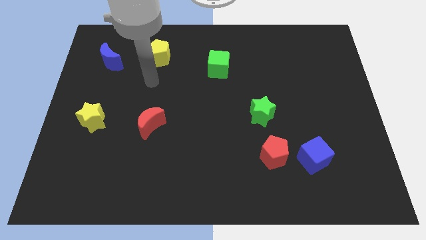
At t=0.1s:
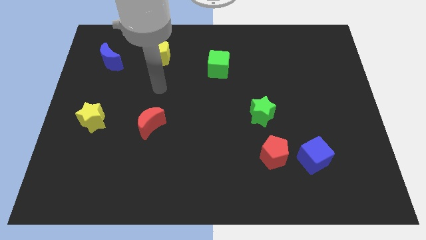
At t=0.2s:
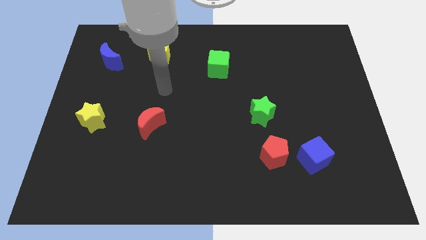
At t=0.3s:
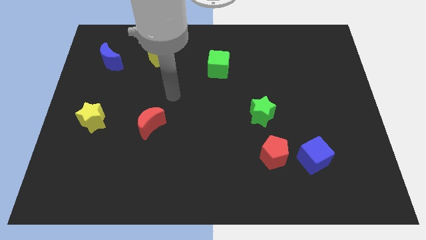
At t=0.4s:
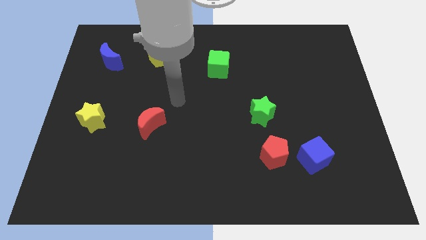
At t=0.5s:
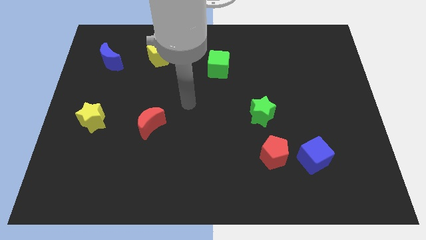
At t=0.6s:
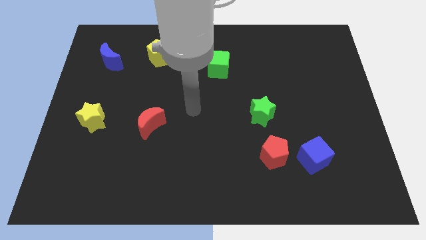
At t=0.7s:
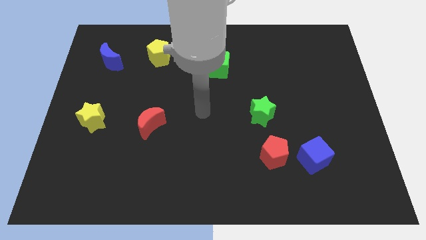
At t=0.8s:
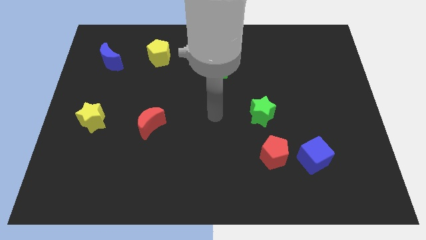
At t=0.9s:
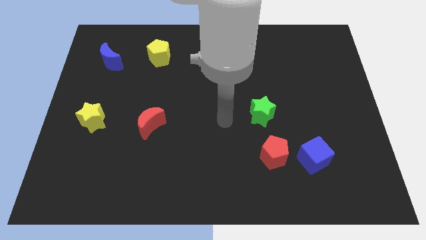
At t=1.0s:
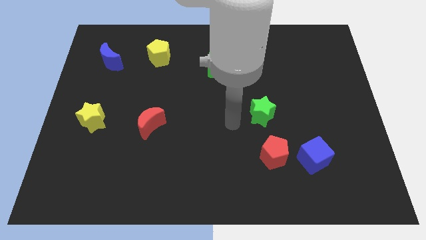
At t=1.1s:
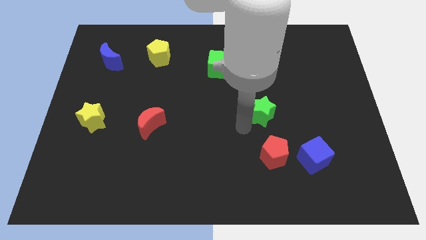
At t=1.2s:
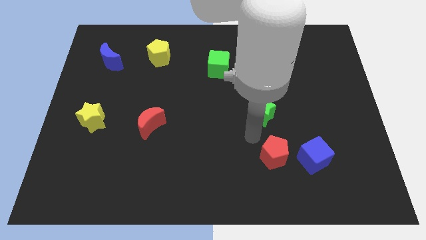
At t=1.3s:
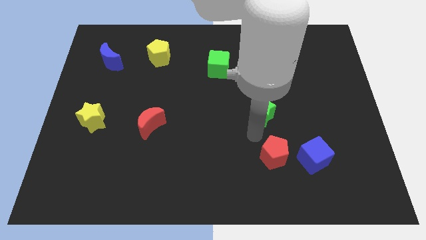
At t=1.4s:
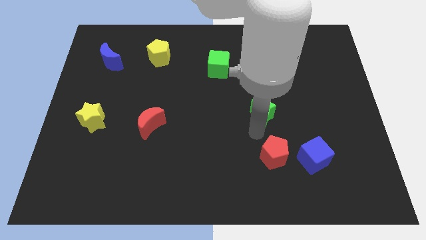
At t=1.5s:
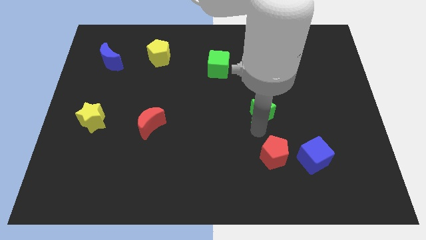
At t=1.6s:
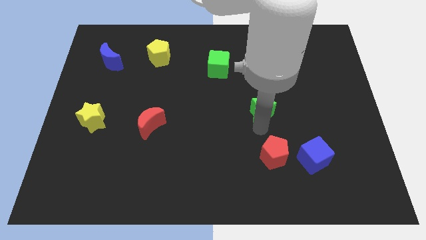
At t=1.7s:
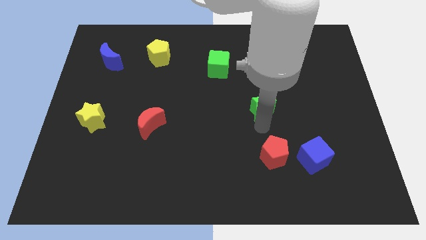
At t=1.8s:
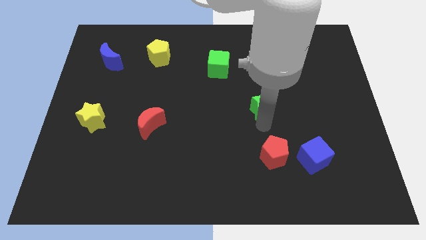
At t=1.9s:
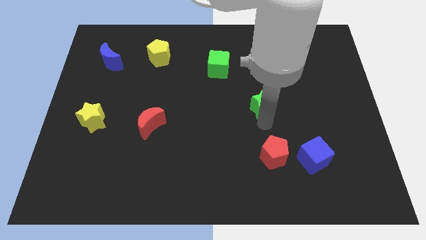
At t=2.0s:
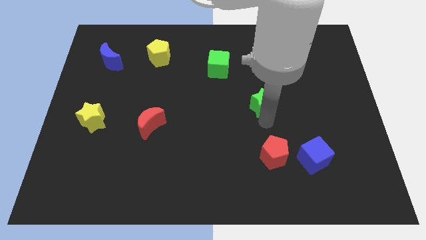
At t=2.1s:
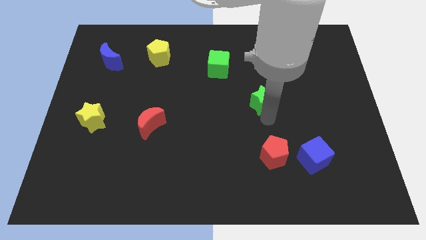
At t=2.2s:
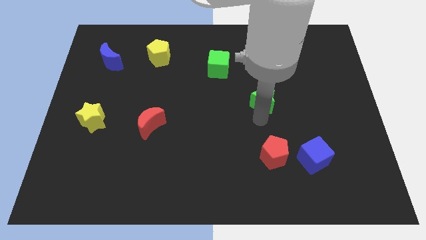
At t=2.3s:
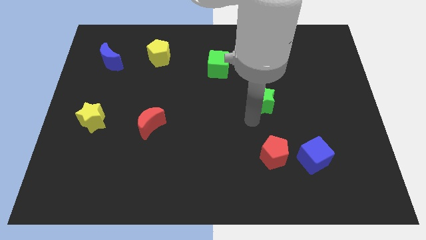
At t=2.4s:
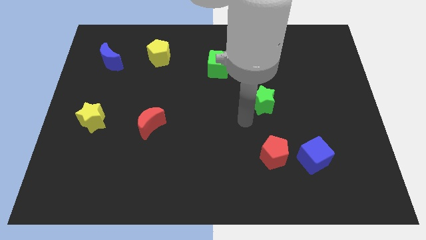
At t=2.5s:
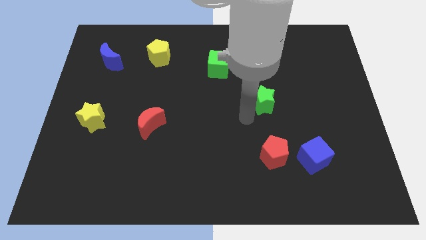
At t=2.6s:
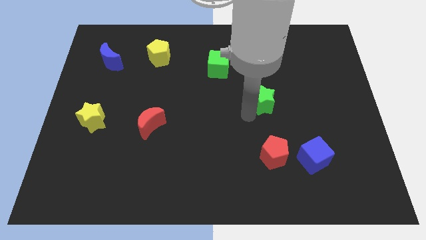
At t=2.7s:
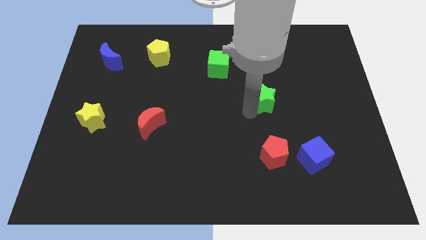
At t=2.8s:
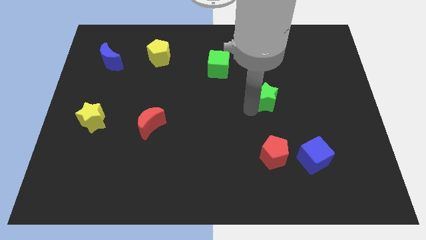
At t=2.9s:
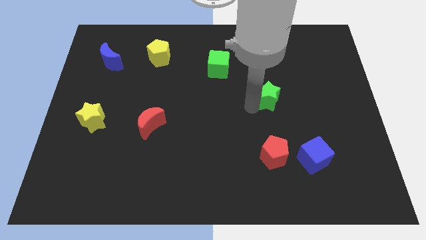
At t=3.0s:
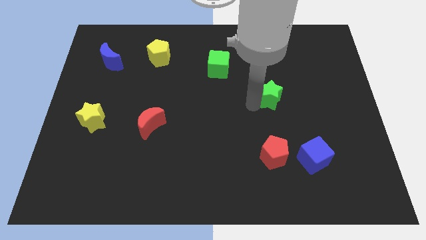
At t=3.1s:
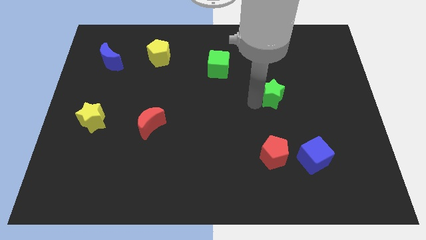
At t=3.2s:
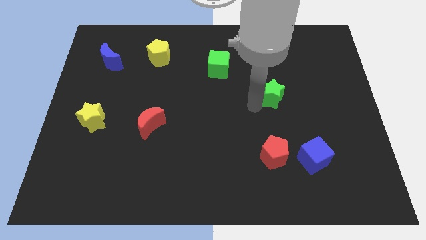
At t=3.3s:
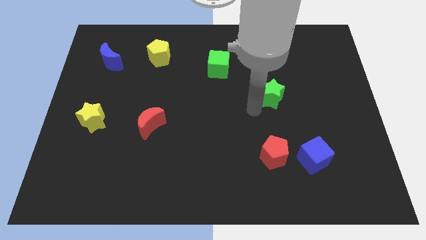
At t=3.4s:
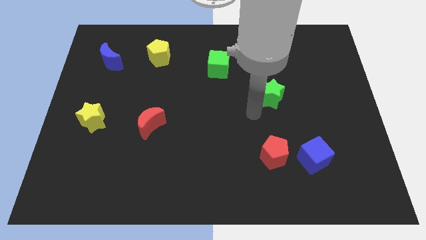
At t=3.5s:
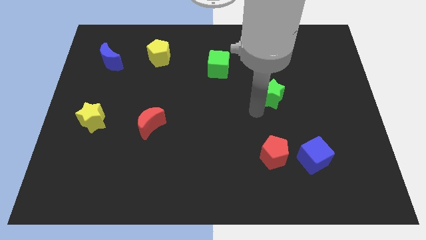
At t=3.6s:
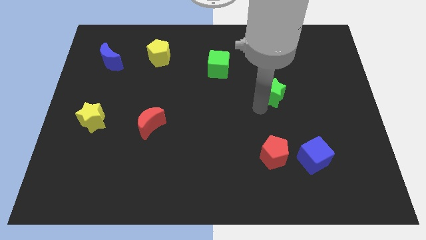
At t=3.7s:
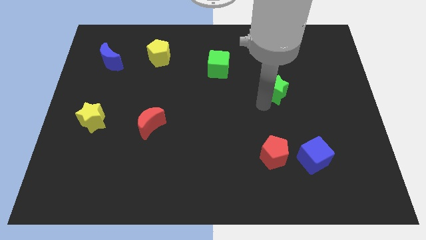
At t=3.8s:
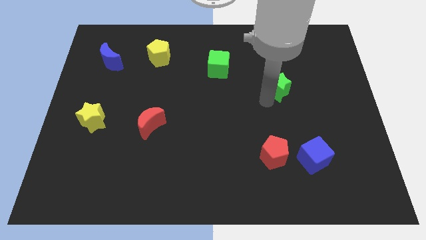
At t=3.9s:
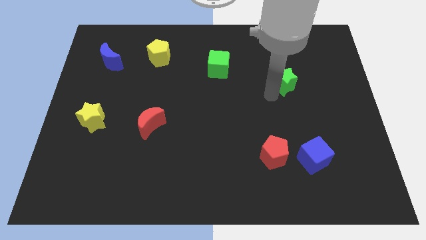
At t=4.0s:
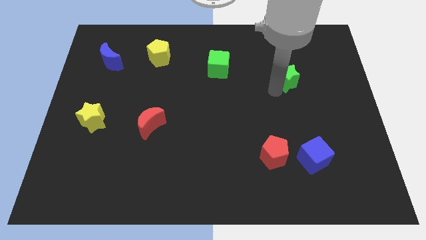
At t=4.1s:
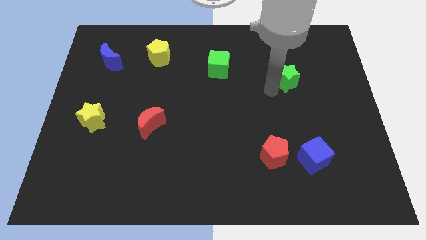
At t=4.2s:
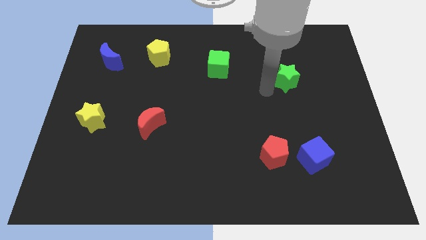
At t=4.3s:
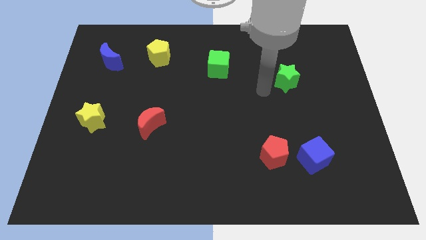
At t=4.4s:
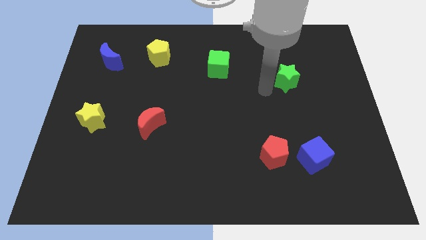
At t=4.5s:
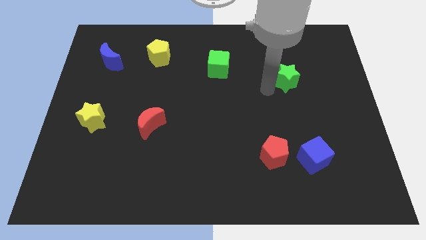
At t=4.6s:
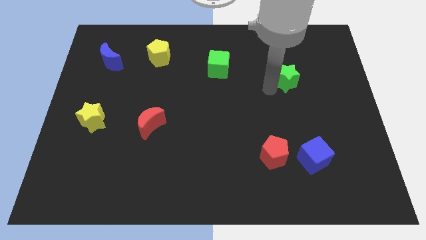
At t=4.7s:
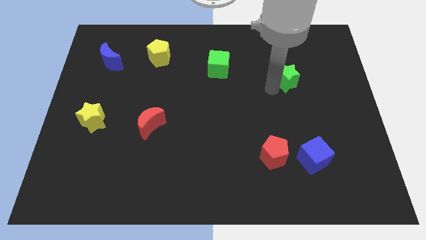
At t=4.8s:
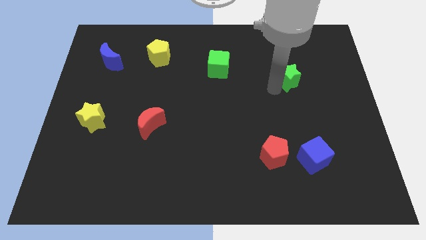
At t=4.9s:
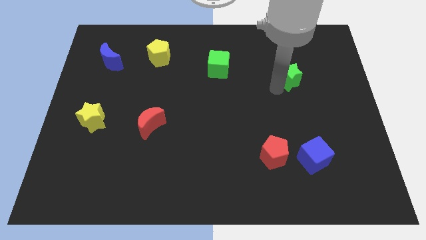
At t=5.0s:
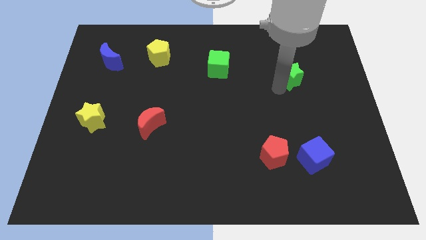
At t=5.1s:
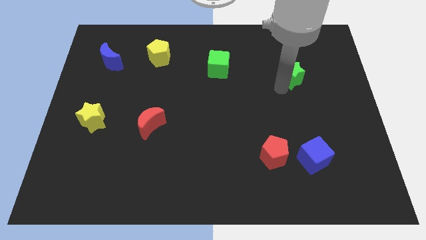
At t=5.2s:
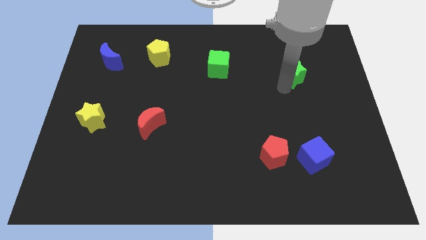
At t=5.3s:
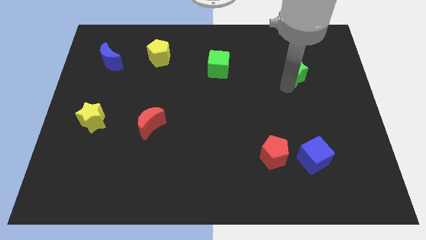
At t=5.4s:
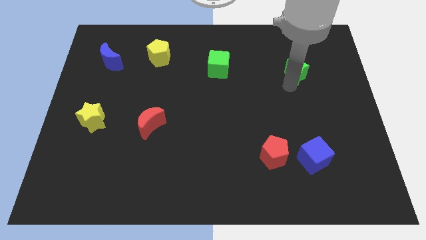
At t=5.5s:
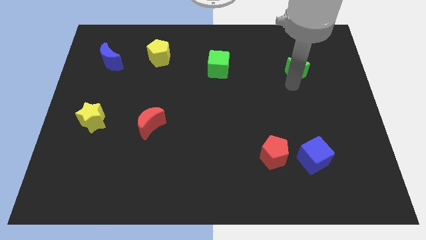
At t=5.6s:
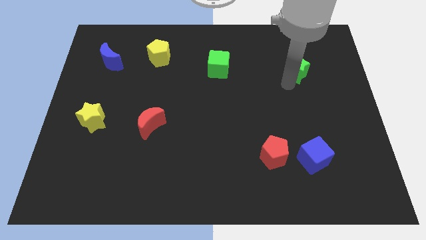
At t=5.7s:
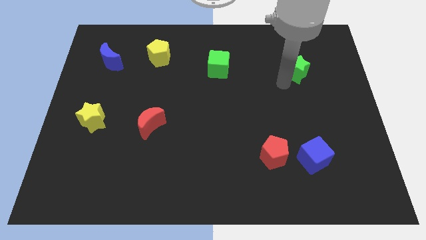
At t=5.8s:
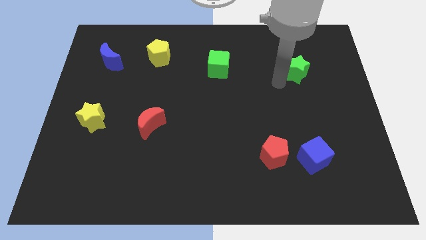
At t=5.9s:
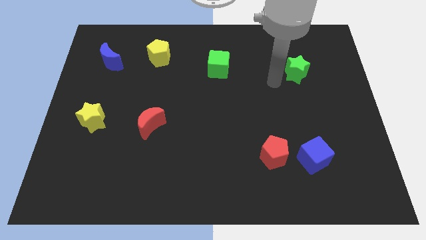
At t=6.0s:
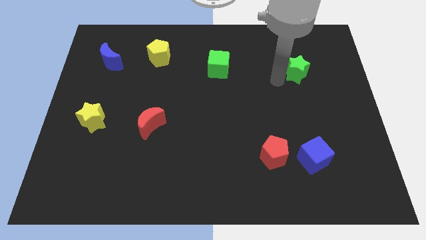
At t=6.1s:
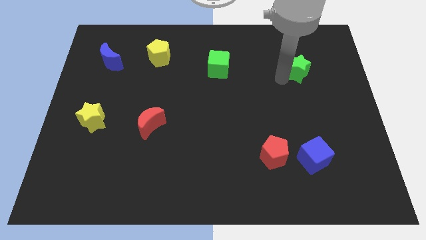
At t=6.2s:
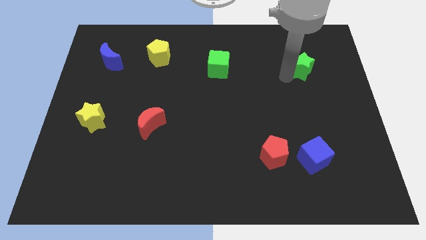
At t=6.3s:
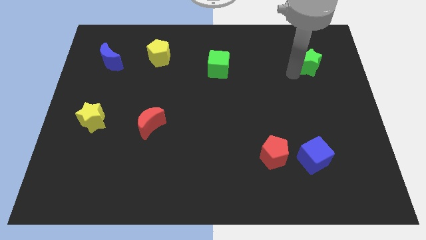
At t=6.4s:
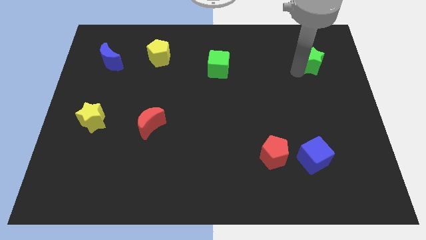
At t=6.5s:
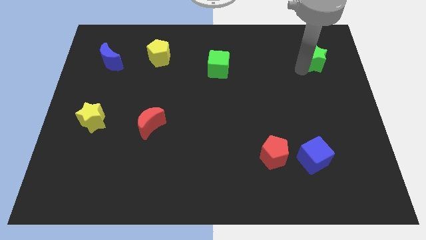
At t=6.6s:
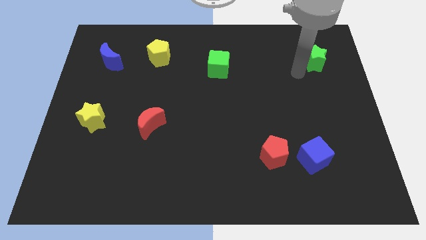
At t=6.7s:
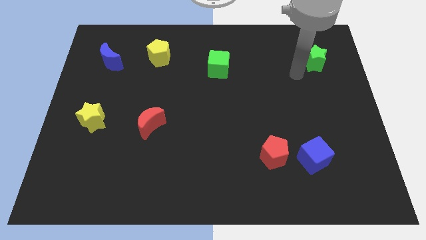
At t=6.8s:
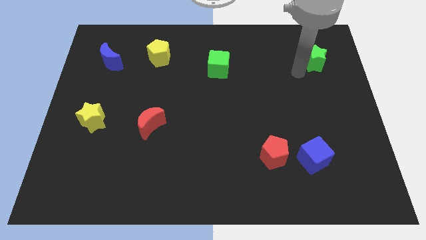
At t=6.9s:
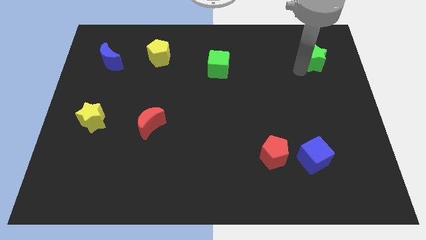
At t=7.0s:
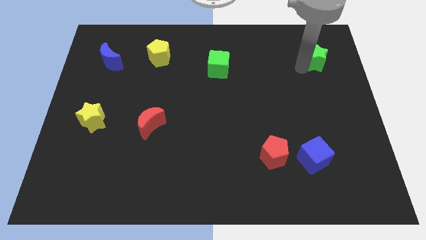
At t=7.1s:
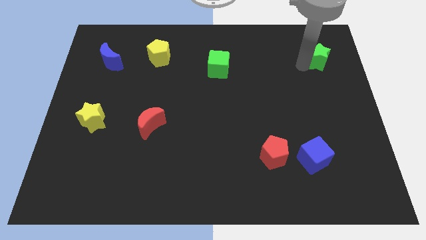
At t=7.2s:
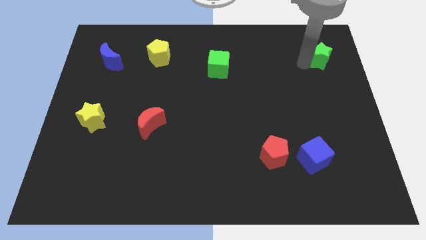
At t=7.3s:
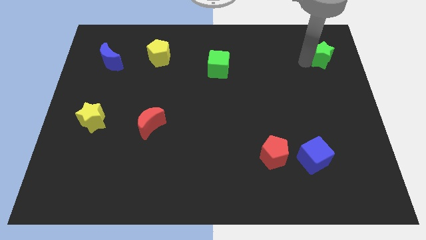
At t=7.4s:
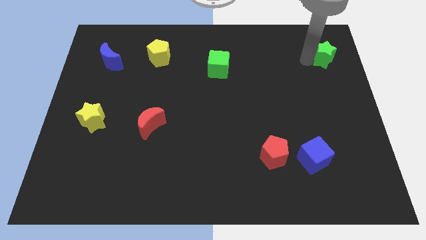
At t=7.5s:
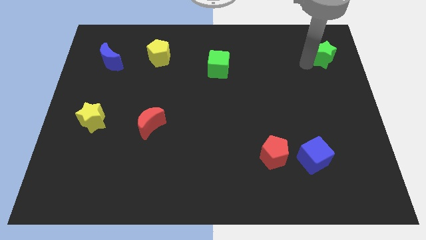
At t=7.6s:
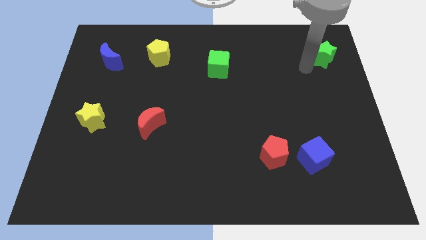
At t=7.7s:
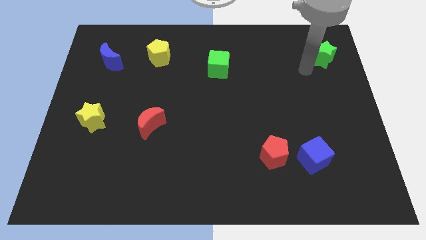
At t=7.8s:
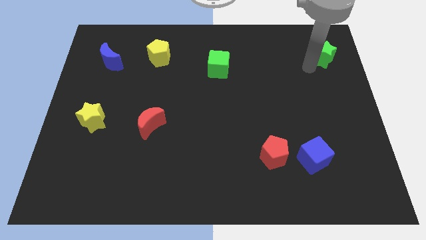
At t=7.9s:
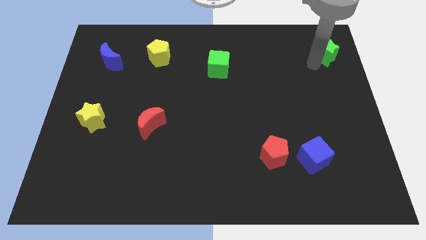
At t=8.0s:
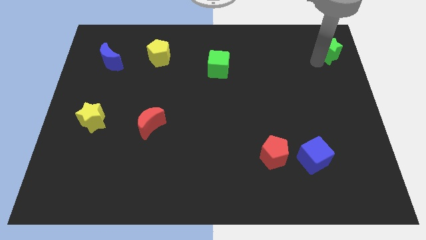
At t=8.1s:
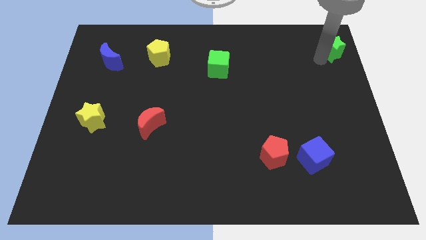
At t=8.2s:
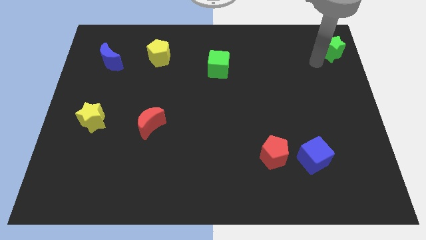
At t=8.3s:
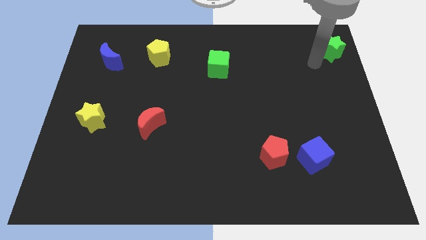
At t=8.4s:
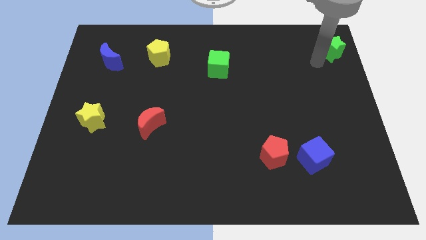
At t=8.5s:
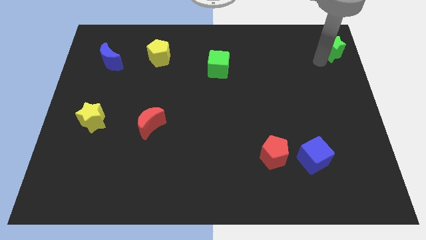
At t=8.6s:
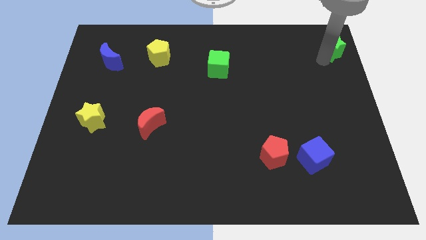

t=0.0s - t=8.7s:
put the green star to the upper right corner
